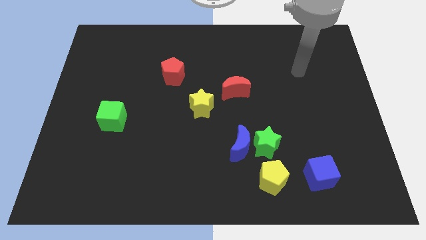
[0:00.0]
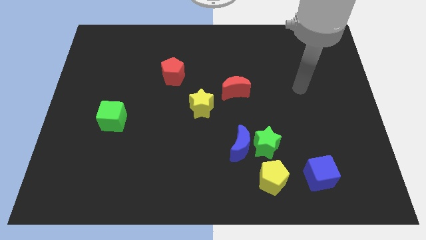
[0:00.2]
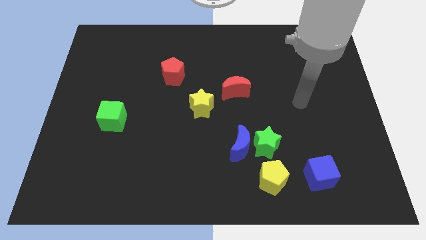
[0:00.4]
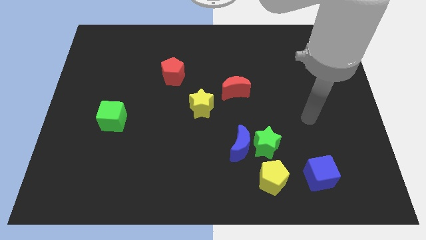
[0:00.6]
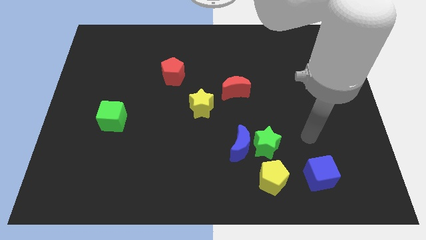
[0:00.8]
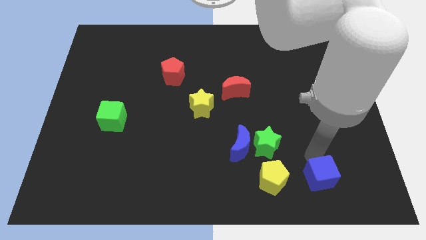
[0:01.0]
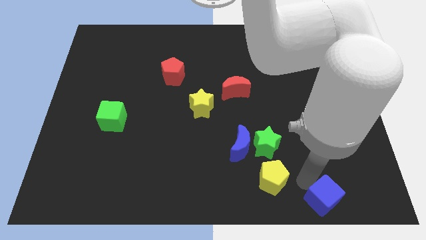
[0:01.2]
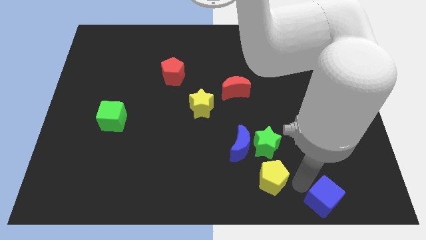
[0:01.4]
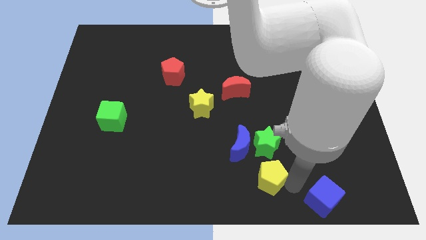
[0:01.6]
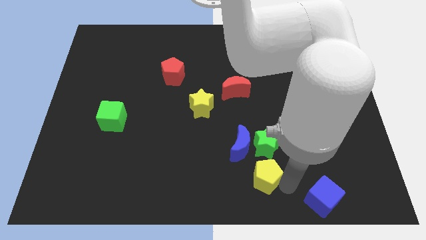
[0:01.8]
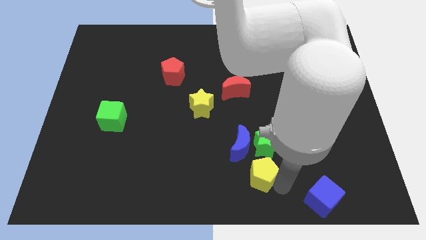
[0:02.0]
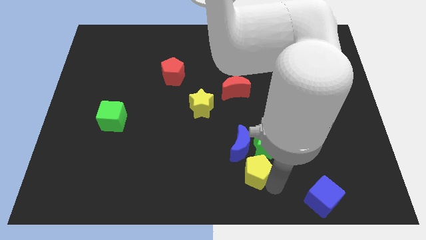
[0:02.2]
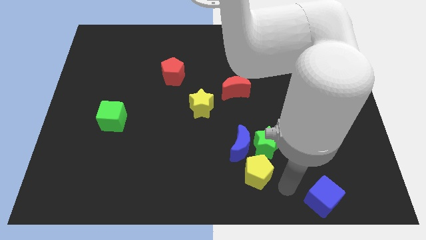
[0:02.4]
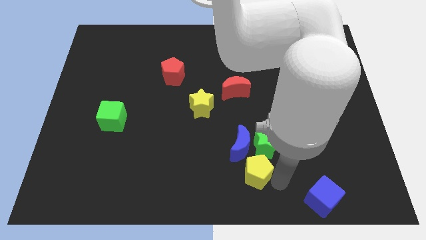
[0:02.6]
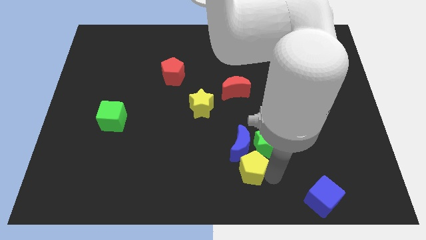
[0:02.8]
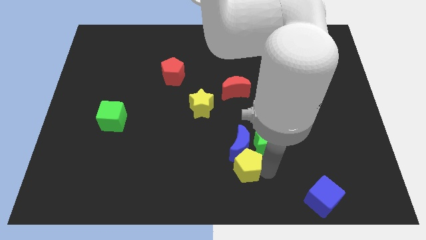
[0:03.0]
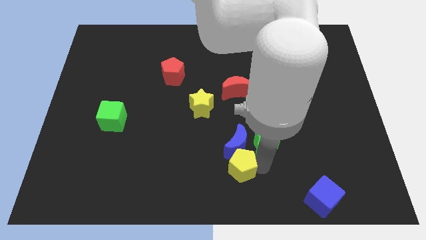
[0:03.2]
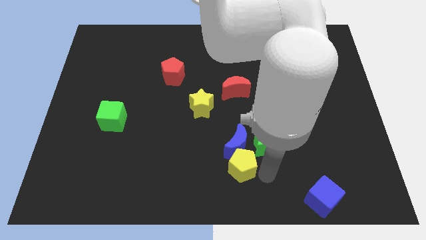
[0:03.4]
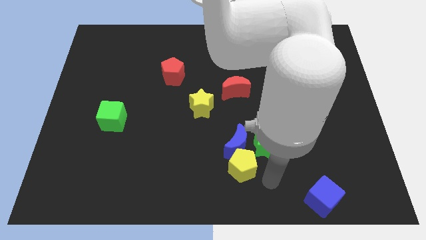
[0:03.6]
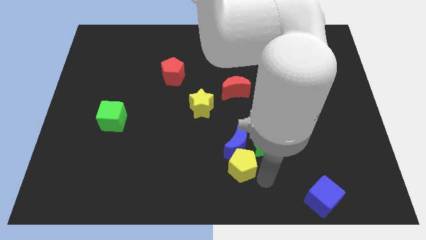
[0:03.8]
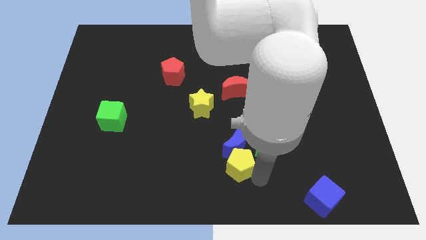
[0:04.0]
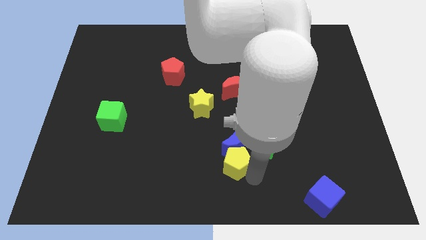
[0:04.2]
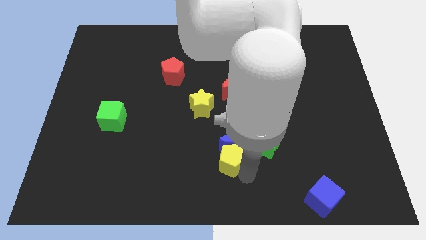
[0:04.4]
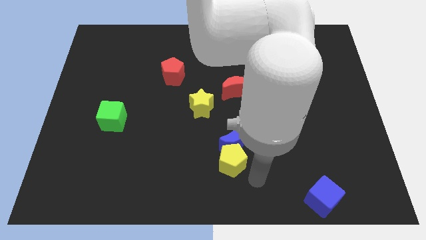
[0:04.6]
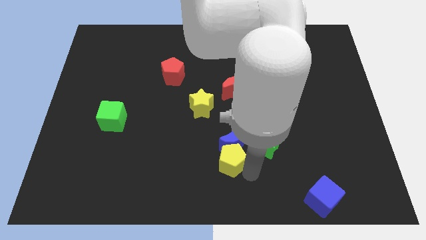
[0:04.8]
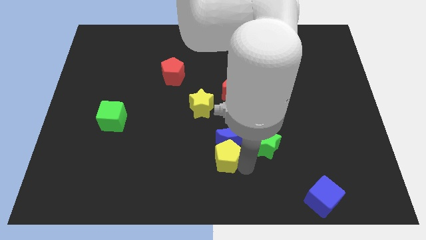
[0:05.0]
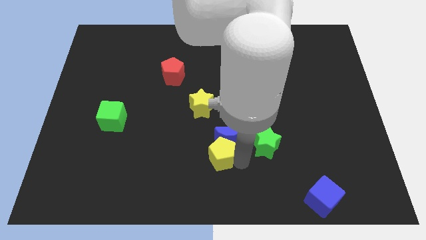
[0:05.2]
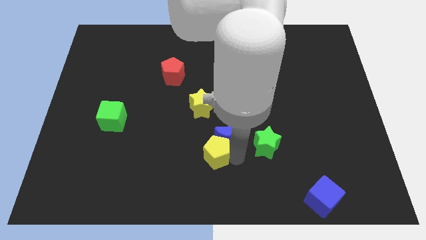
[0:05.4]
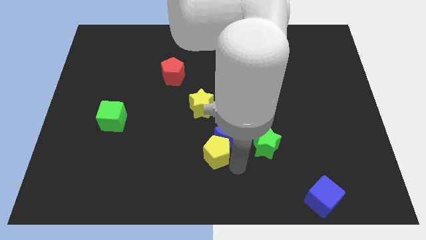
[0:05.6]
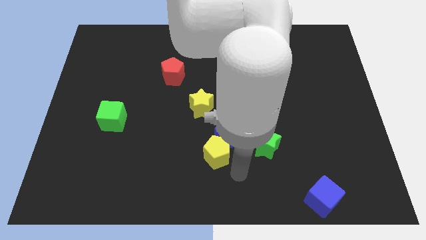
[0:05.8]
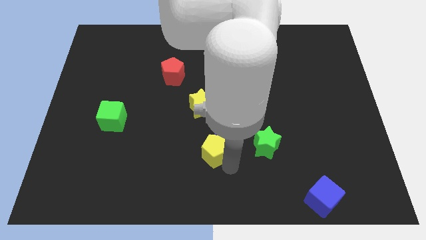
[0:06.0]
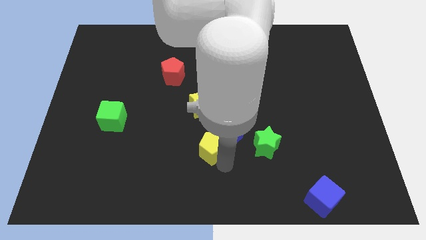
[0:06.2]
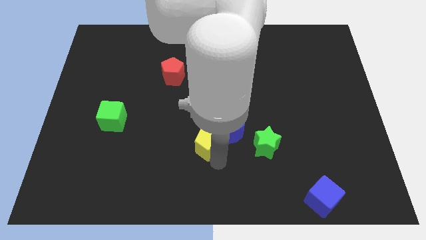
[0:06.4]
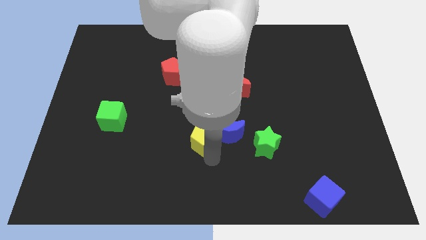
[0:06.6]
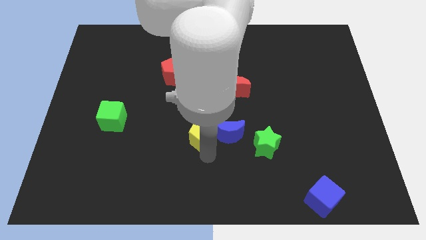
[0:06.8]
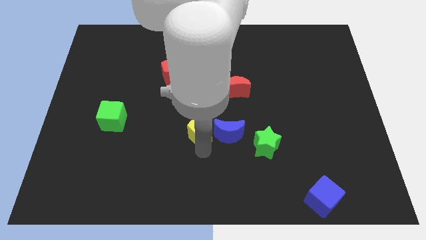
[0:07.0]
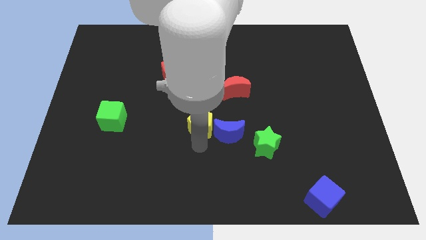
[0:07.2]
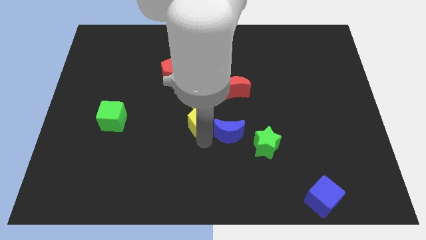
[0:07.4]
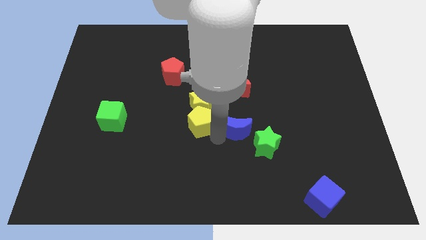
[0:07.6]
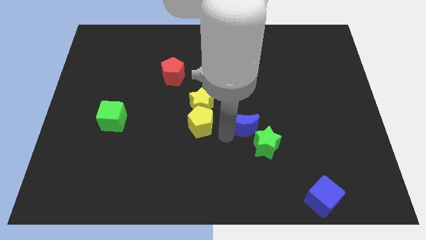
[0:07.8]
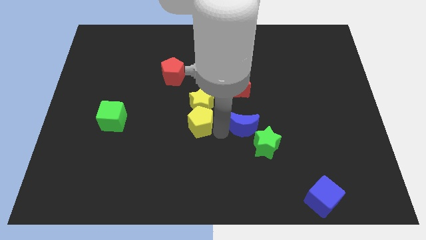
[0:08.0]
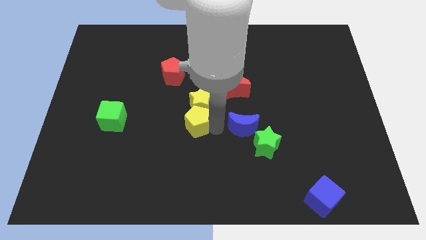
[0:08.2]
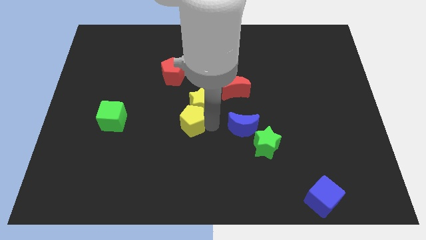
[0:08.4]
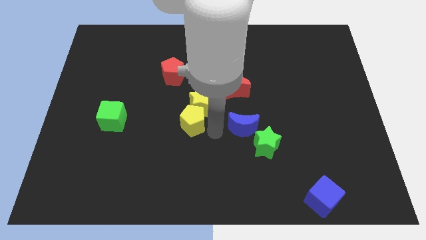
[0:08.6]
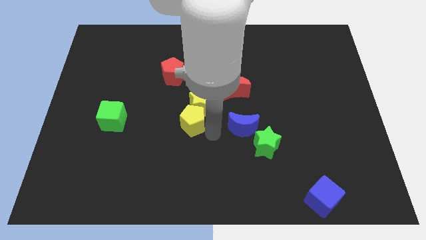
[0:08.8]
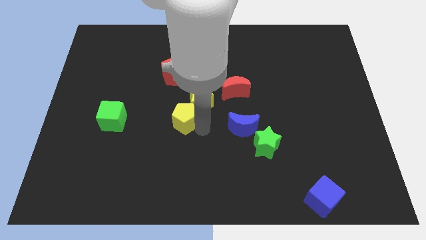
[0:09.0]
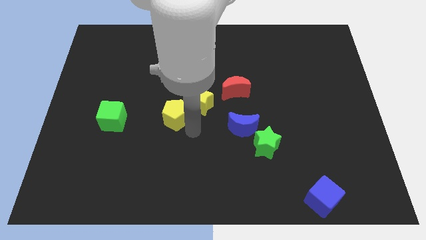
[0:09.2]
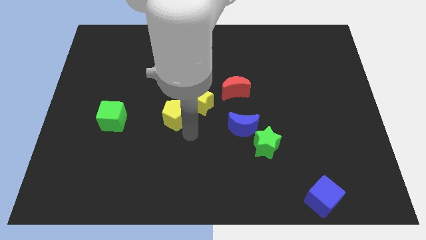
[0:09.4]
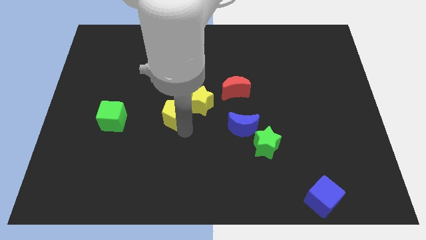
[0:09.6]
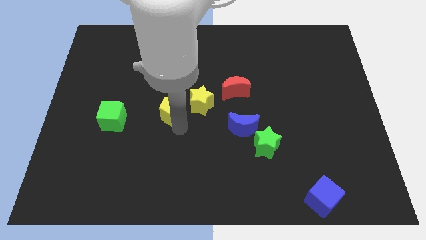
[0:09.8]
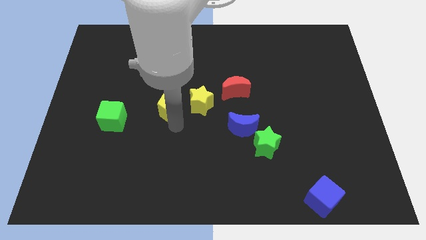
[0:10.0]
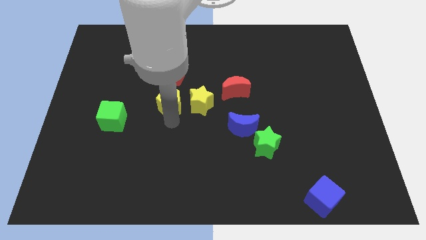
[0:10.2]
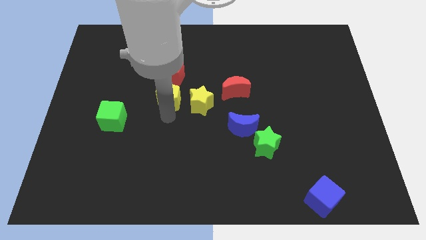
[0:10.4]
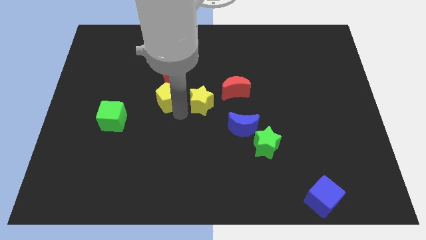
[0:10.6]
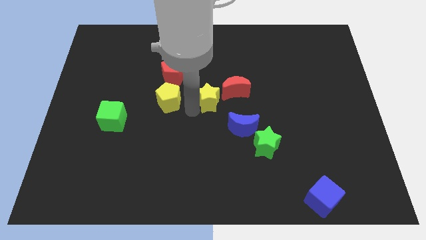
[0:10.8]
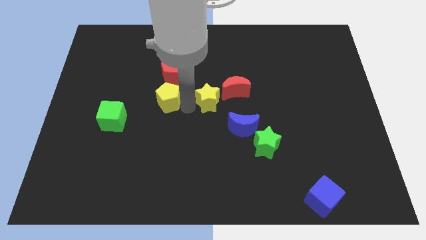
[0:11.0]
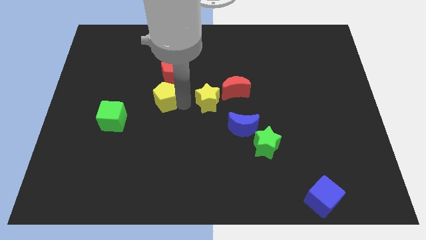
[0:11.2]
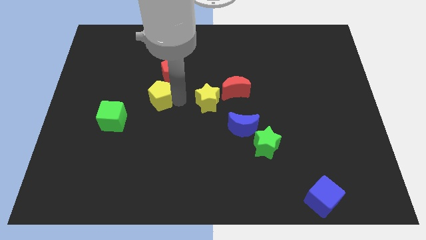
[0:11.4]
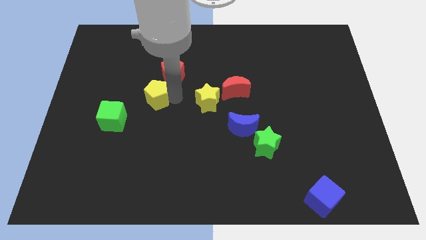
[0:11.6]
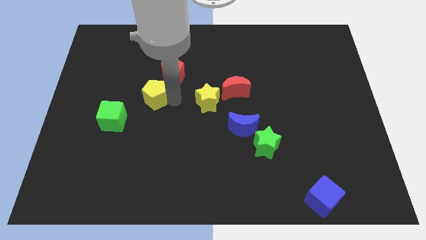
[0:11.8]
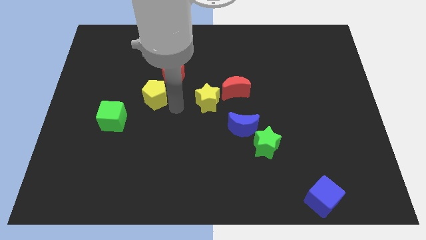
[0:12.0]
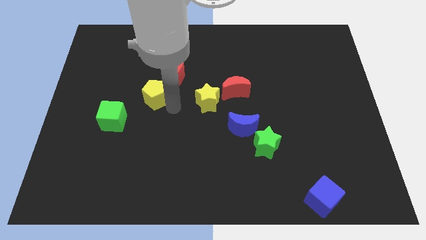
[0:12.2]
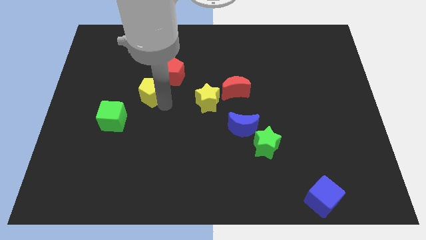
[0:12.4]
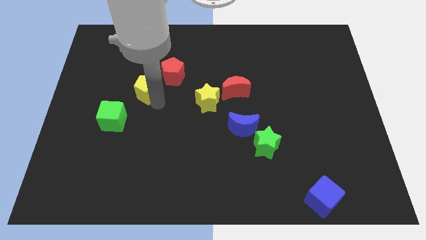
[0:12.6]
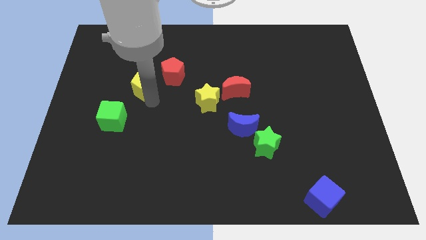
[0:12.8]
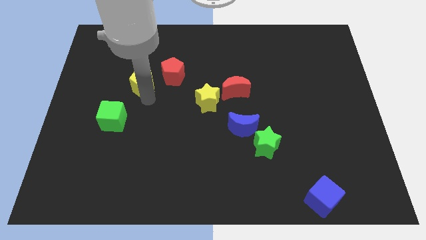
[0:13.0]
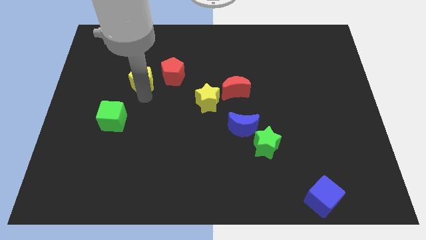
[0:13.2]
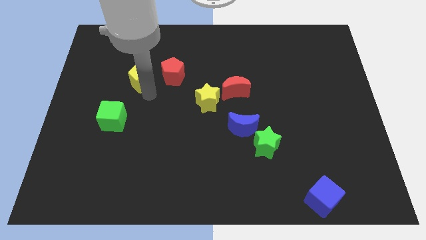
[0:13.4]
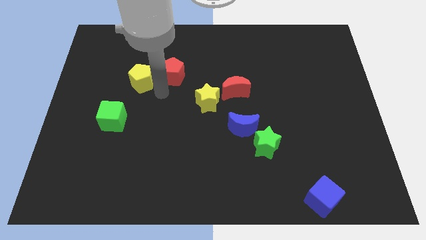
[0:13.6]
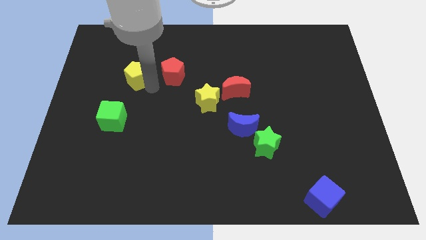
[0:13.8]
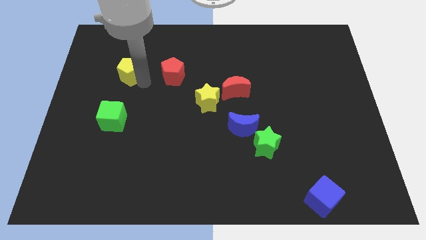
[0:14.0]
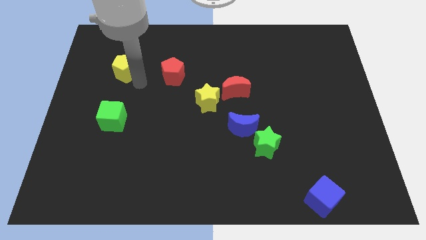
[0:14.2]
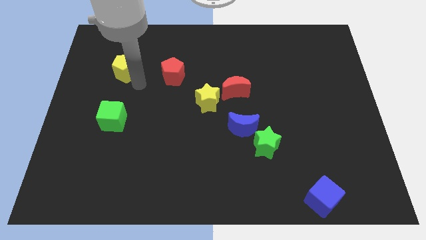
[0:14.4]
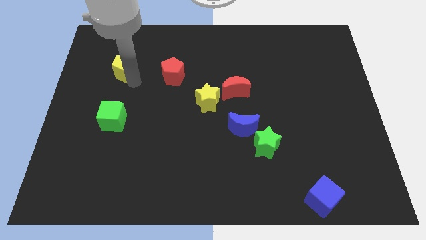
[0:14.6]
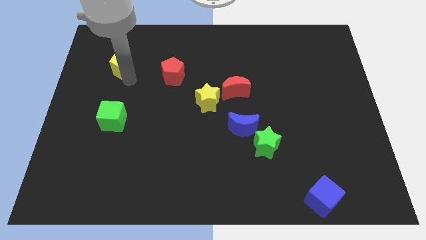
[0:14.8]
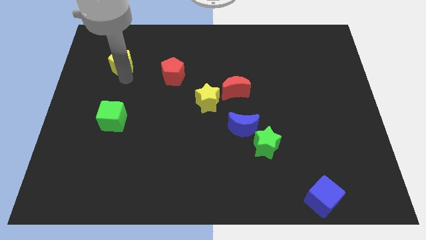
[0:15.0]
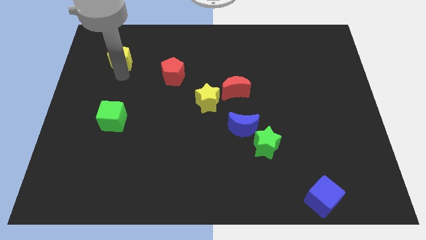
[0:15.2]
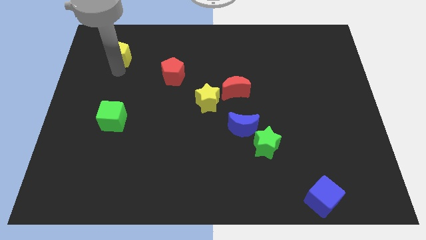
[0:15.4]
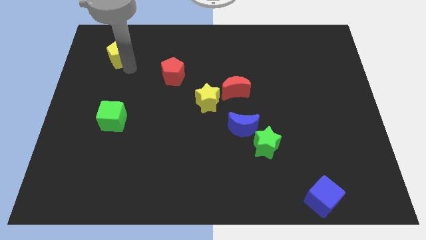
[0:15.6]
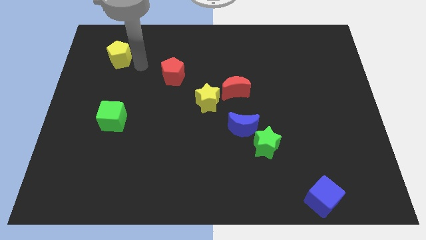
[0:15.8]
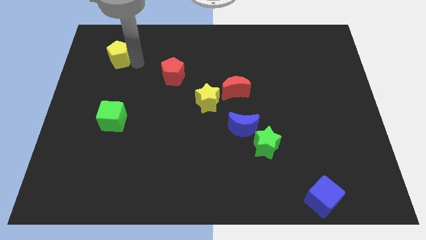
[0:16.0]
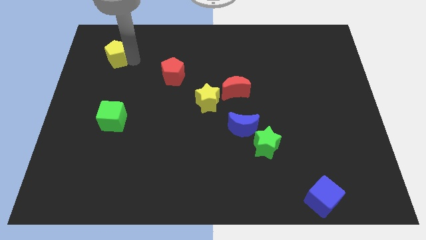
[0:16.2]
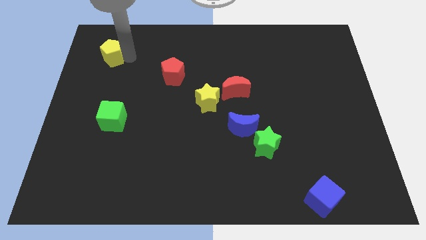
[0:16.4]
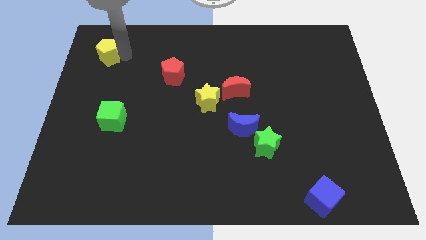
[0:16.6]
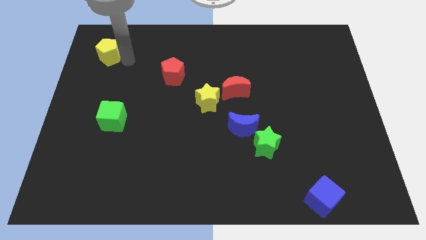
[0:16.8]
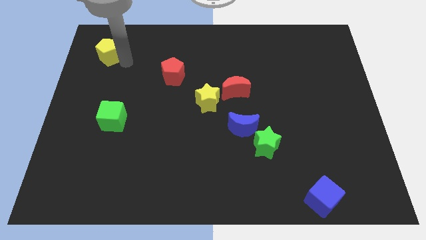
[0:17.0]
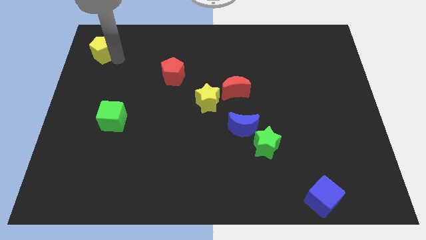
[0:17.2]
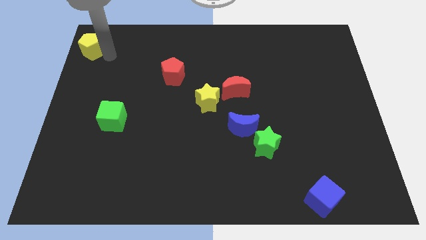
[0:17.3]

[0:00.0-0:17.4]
move the yellow pentagon to the top left of the board
